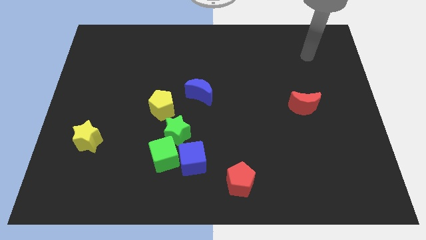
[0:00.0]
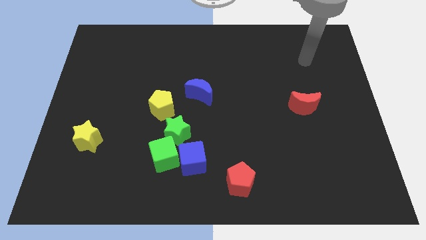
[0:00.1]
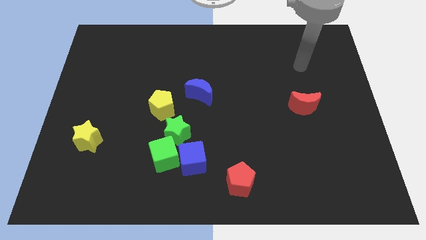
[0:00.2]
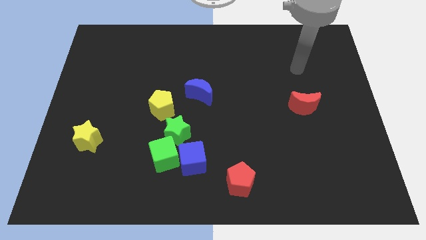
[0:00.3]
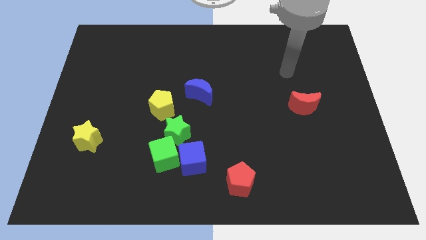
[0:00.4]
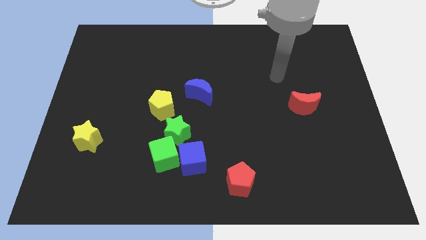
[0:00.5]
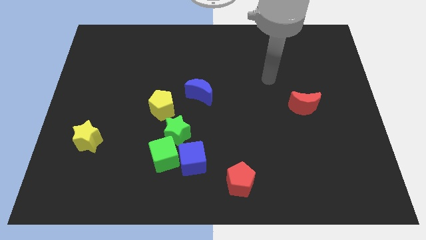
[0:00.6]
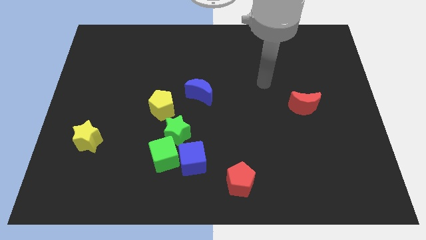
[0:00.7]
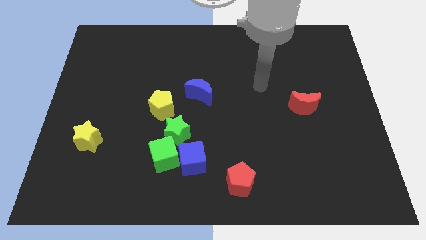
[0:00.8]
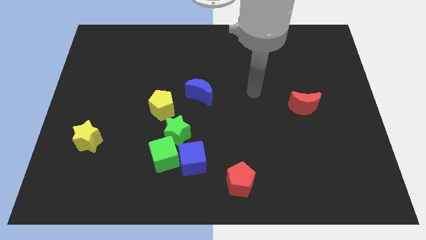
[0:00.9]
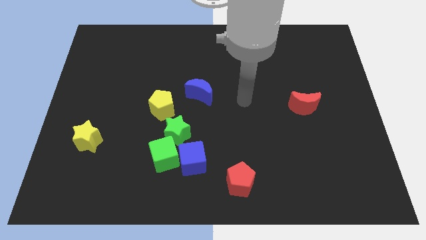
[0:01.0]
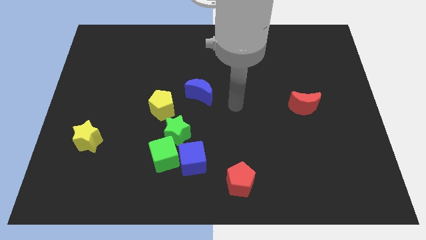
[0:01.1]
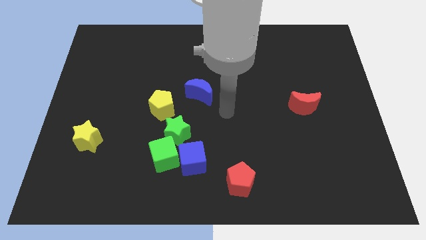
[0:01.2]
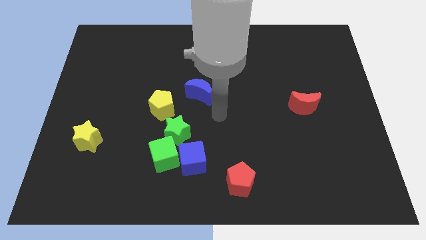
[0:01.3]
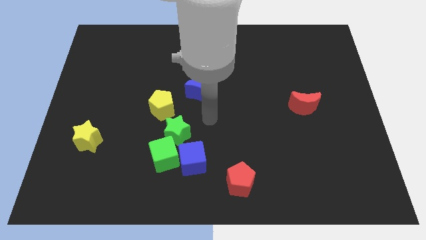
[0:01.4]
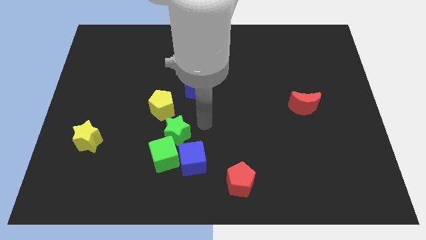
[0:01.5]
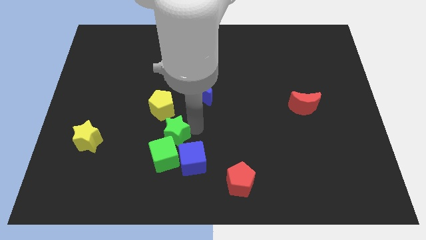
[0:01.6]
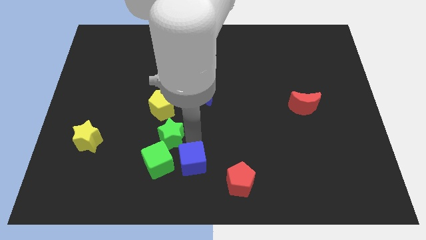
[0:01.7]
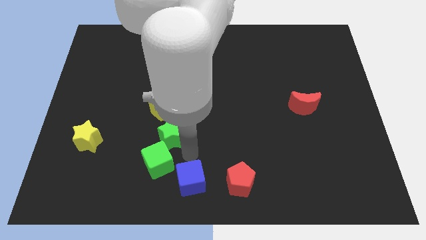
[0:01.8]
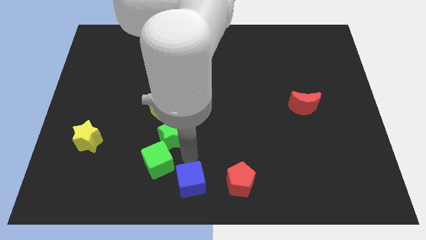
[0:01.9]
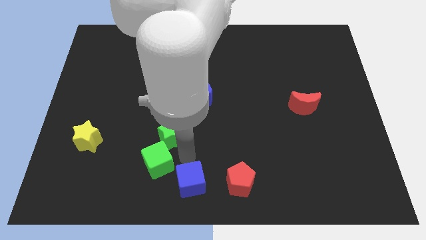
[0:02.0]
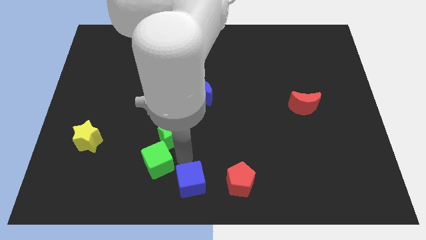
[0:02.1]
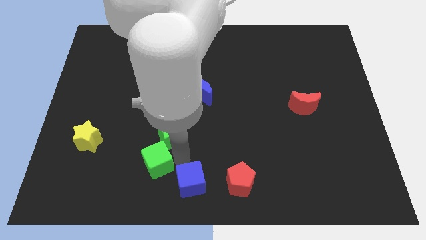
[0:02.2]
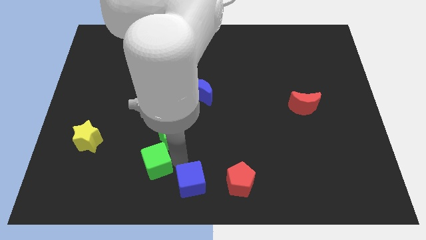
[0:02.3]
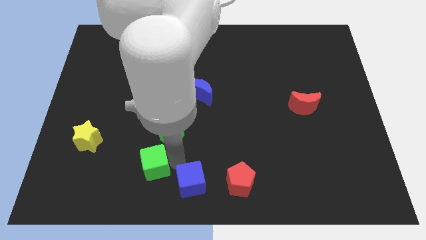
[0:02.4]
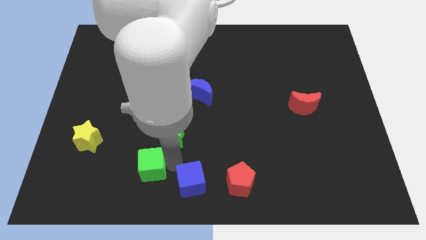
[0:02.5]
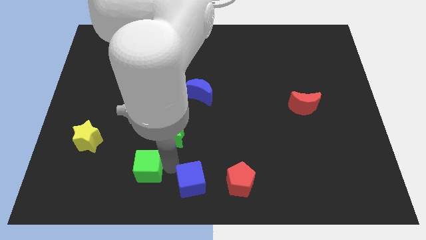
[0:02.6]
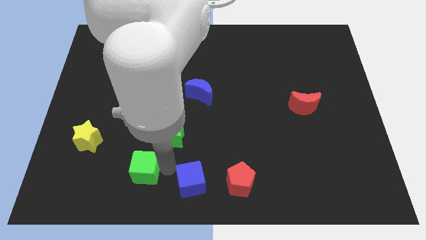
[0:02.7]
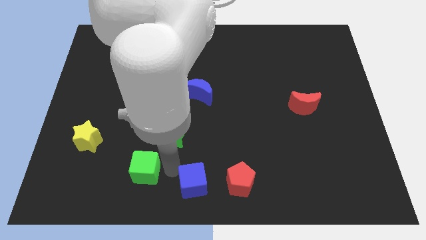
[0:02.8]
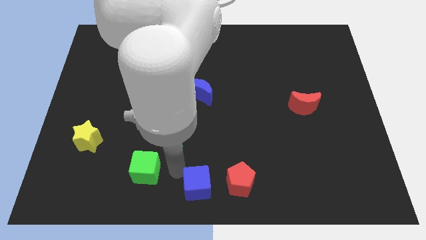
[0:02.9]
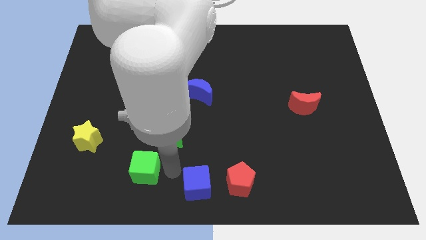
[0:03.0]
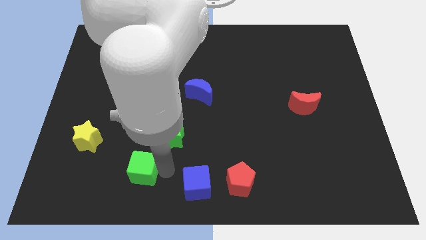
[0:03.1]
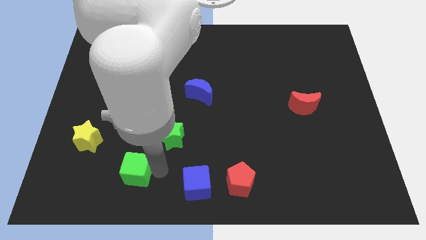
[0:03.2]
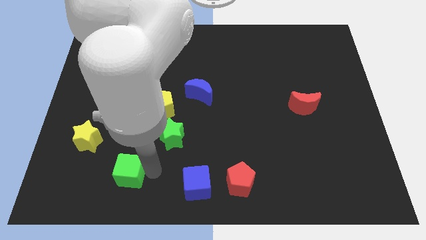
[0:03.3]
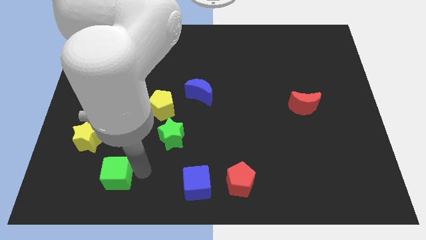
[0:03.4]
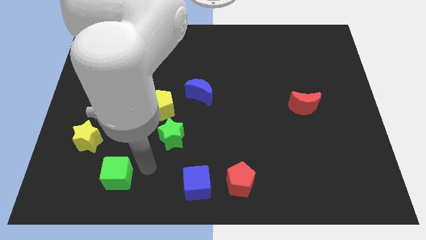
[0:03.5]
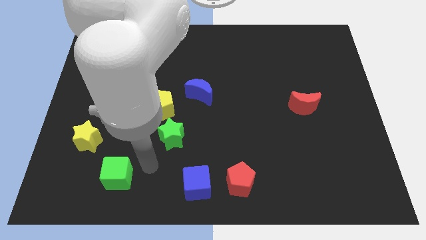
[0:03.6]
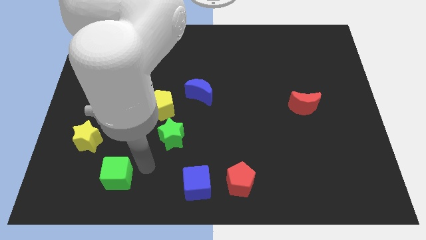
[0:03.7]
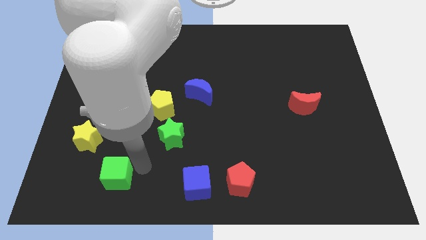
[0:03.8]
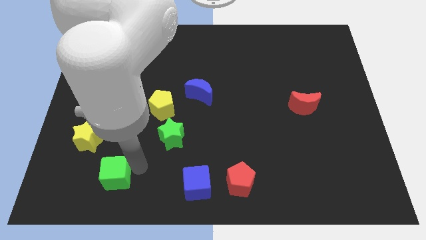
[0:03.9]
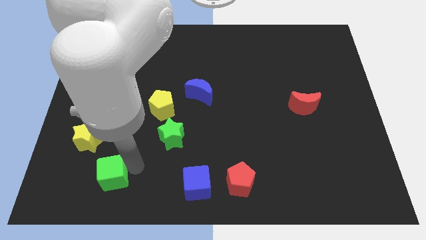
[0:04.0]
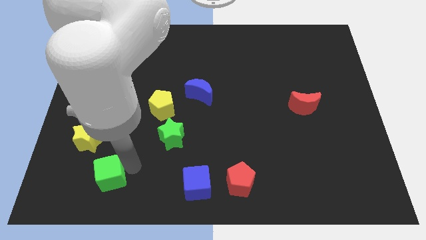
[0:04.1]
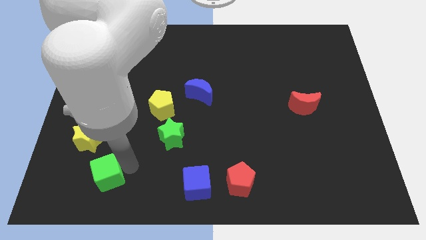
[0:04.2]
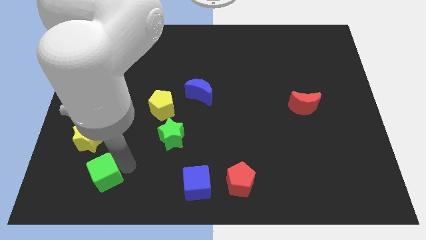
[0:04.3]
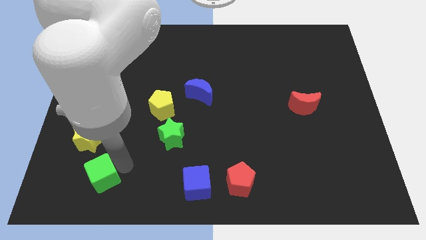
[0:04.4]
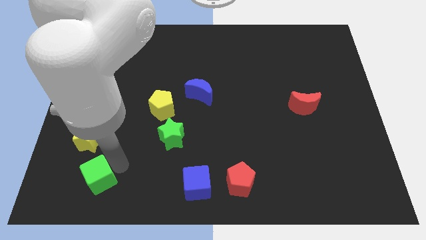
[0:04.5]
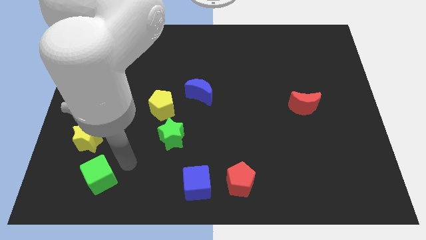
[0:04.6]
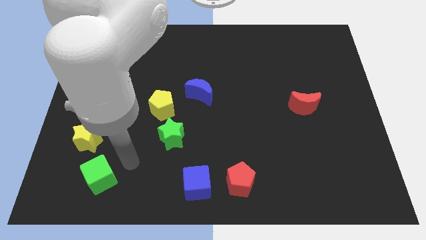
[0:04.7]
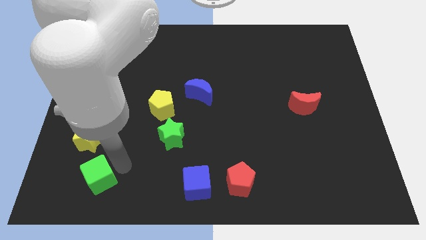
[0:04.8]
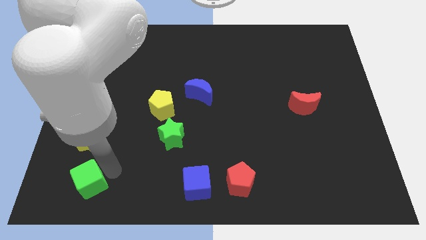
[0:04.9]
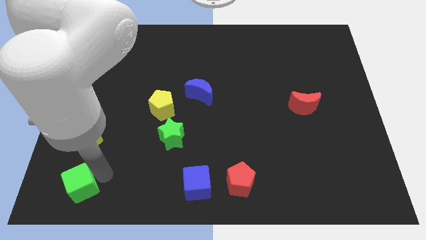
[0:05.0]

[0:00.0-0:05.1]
push the green cube to the bottom left

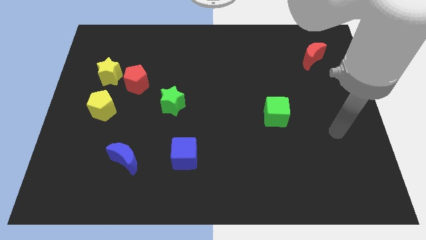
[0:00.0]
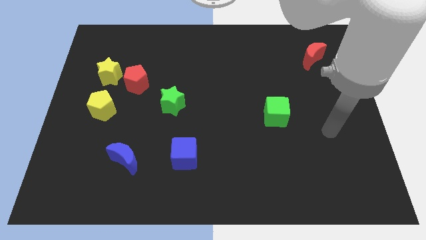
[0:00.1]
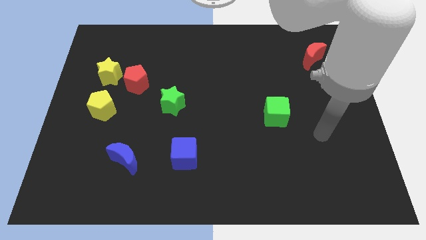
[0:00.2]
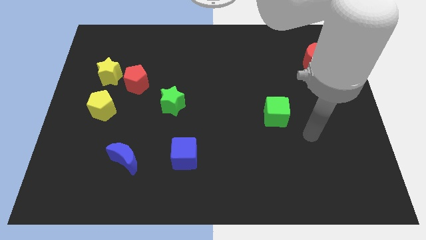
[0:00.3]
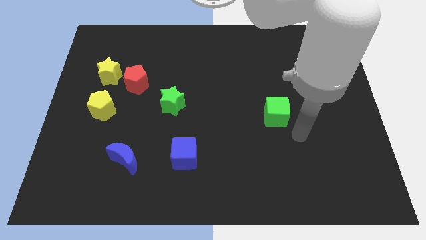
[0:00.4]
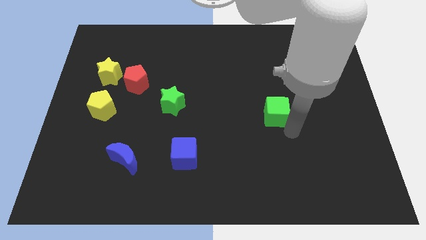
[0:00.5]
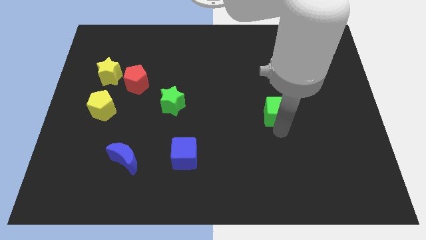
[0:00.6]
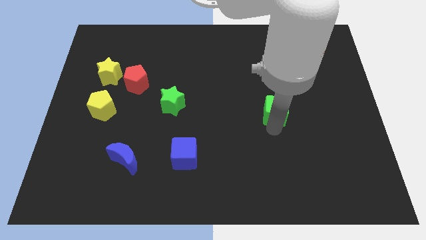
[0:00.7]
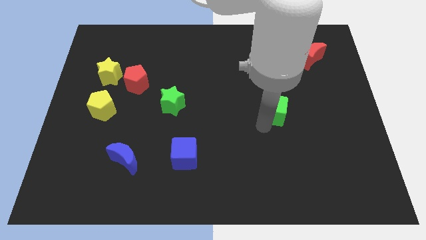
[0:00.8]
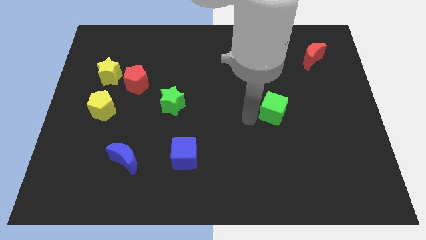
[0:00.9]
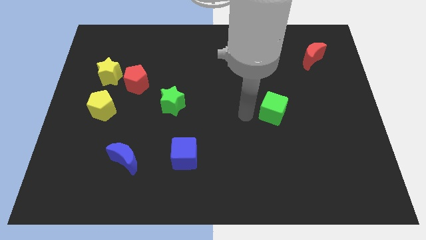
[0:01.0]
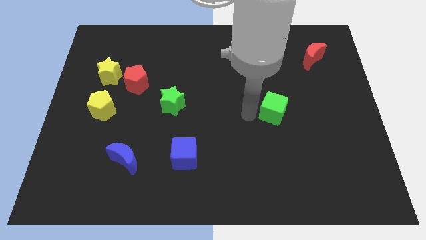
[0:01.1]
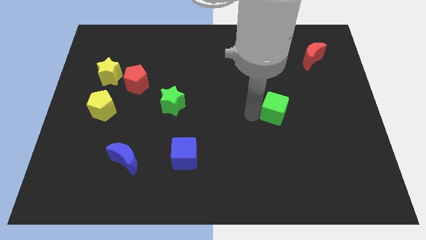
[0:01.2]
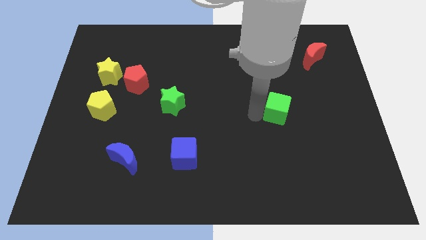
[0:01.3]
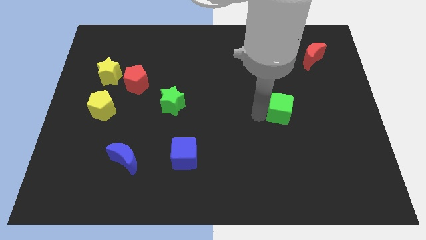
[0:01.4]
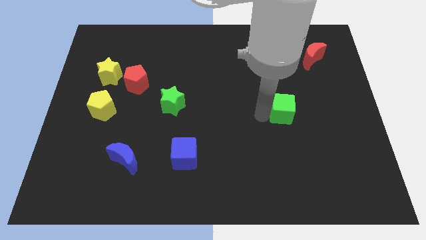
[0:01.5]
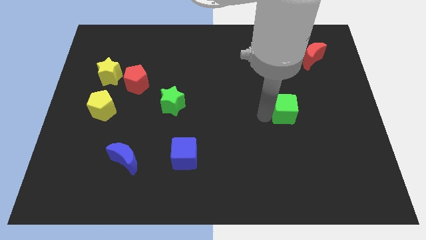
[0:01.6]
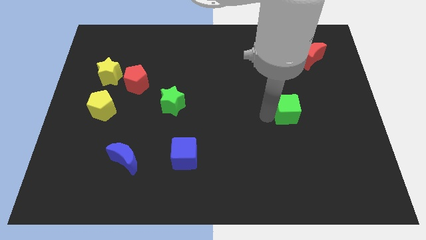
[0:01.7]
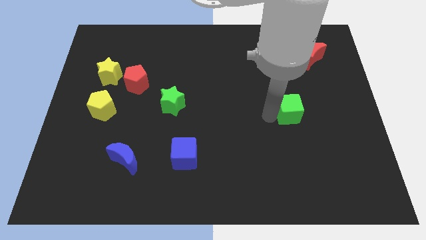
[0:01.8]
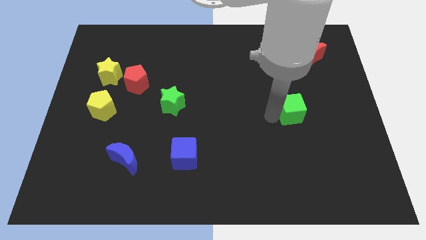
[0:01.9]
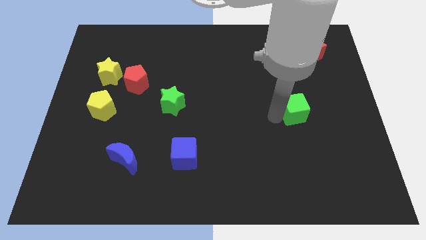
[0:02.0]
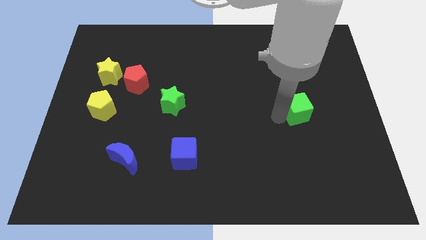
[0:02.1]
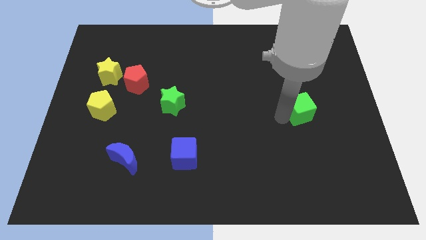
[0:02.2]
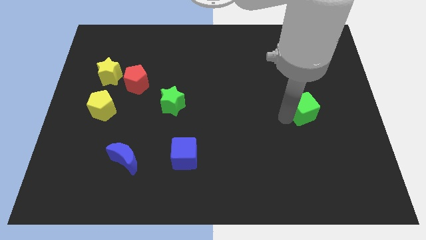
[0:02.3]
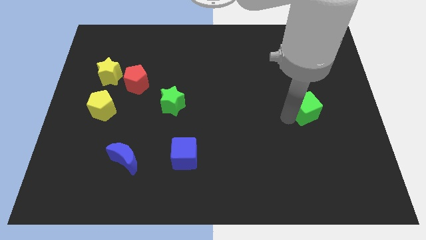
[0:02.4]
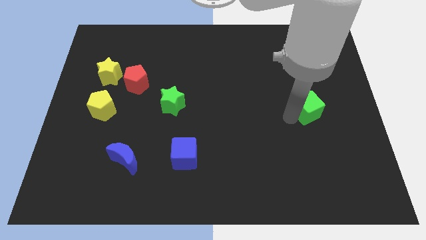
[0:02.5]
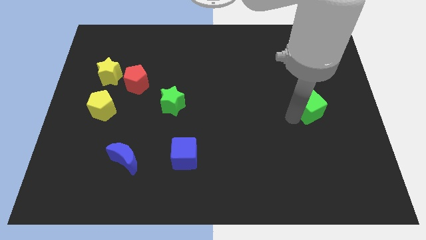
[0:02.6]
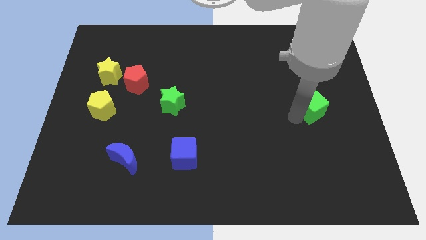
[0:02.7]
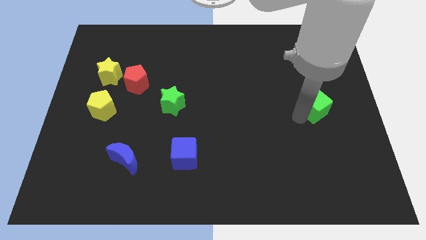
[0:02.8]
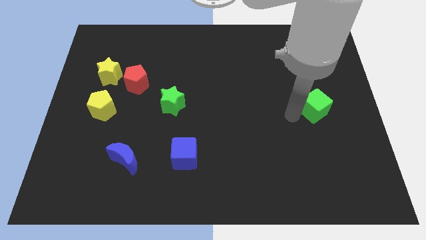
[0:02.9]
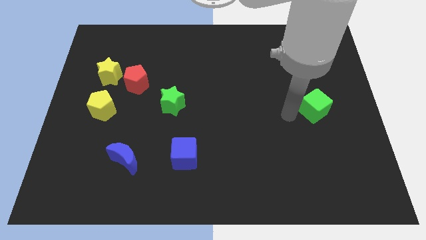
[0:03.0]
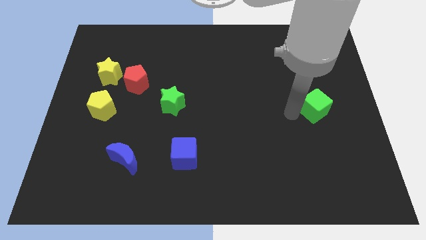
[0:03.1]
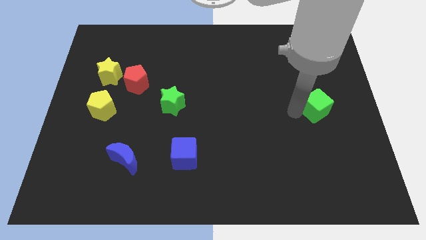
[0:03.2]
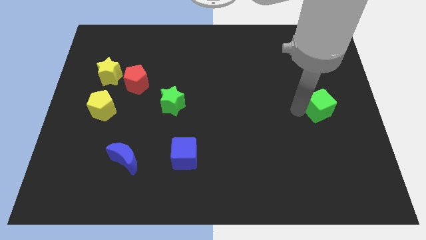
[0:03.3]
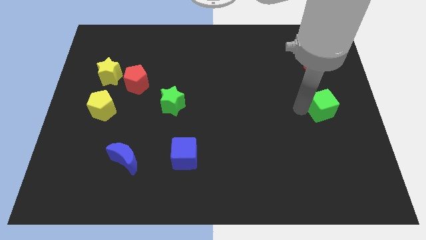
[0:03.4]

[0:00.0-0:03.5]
push the green cube to the center right
